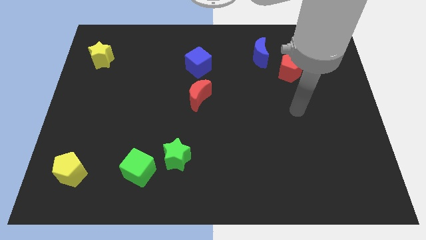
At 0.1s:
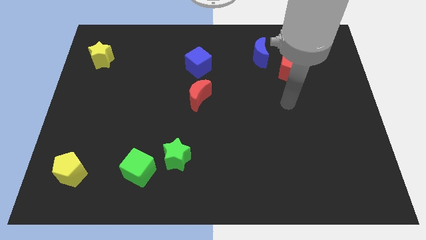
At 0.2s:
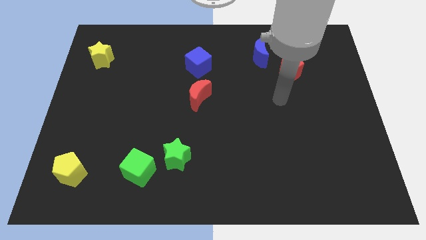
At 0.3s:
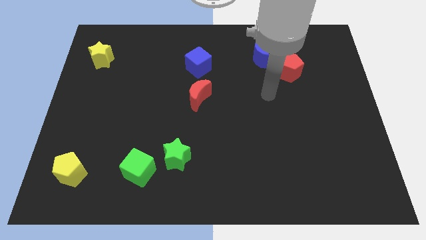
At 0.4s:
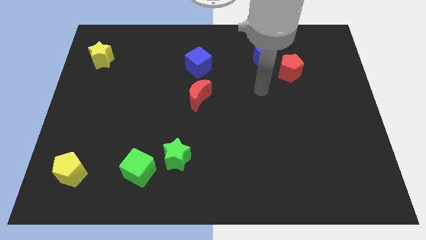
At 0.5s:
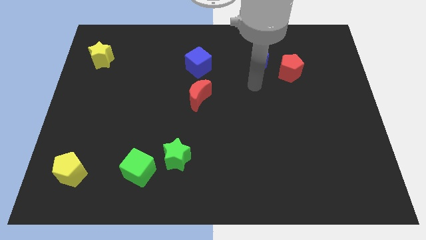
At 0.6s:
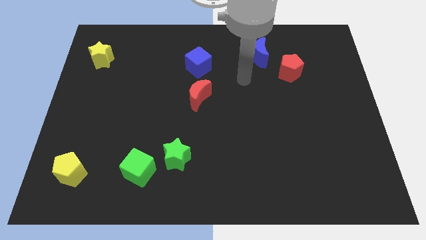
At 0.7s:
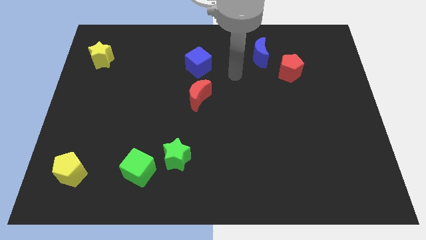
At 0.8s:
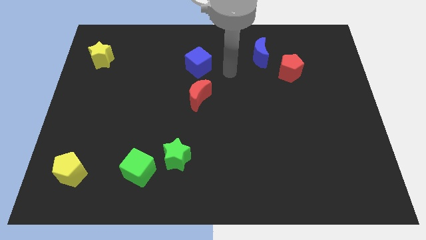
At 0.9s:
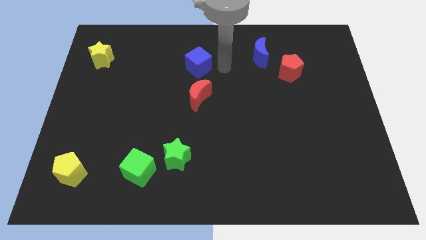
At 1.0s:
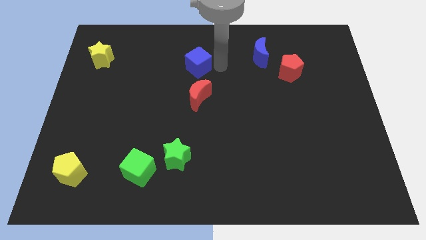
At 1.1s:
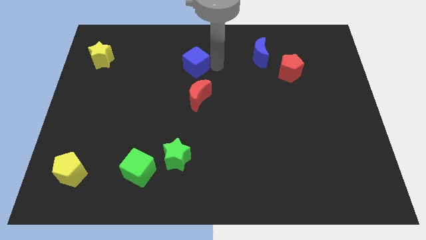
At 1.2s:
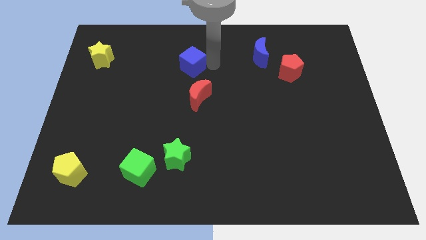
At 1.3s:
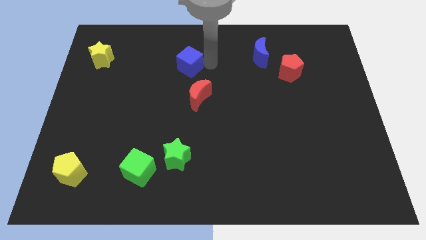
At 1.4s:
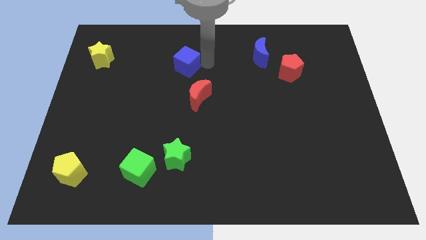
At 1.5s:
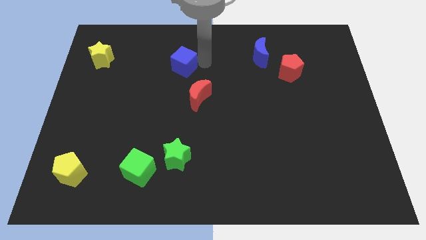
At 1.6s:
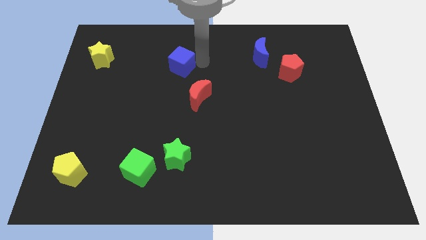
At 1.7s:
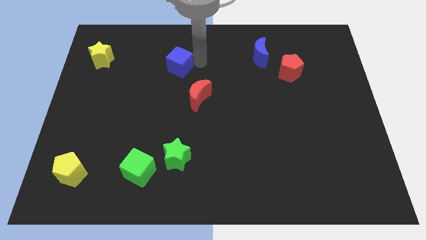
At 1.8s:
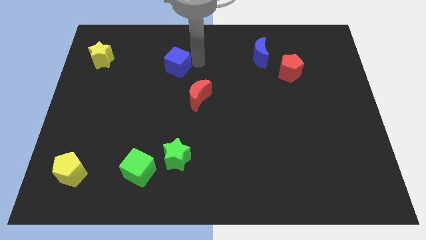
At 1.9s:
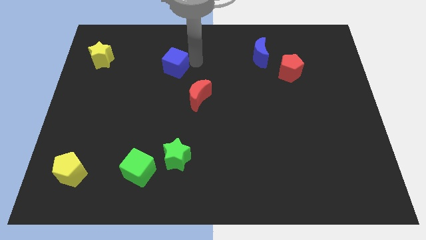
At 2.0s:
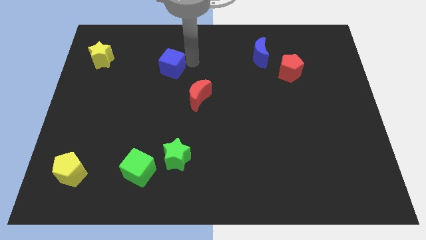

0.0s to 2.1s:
slightly slide the blue cube to the left

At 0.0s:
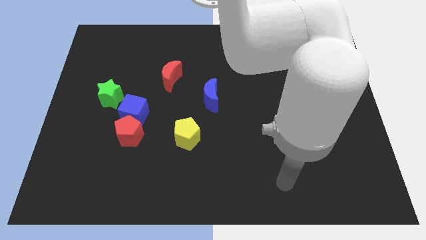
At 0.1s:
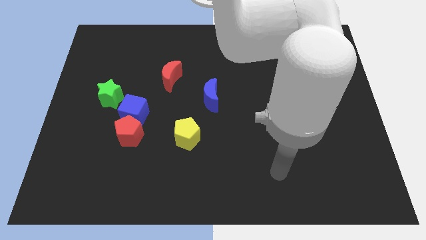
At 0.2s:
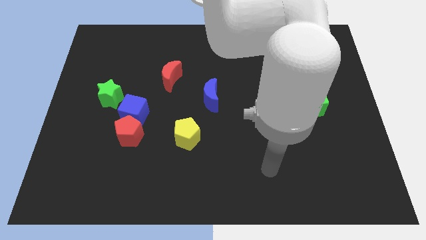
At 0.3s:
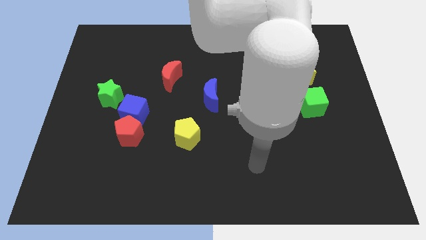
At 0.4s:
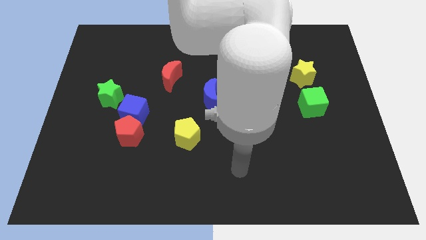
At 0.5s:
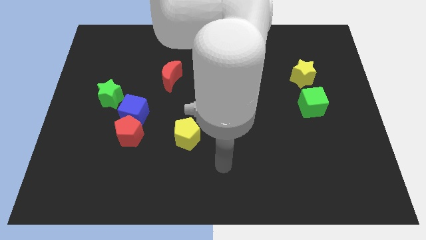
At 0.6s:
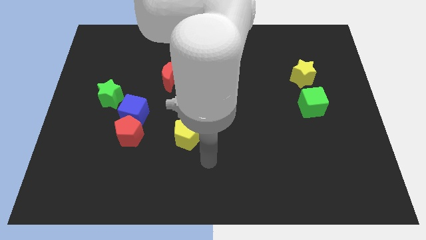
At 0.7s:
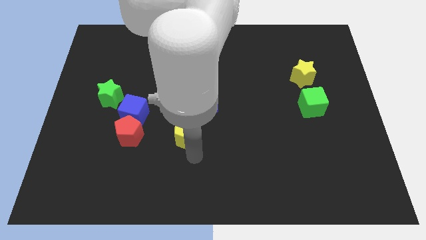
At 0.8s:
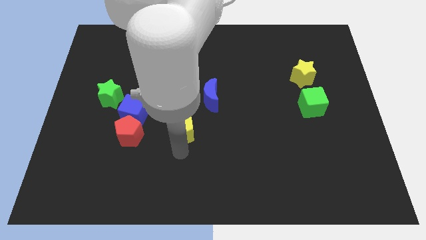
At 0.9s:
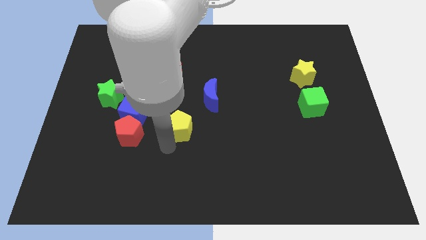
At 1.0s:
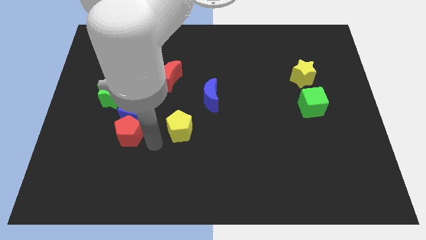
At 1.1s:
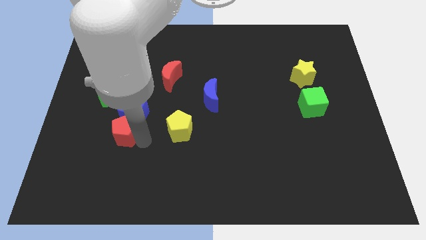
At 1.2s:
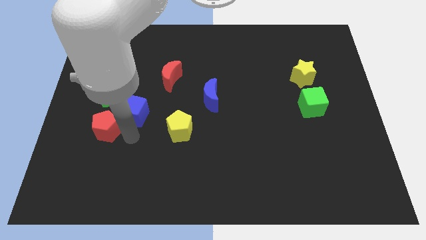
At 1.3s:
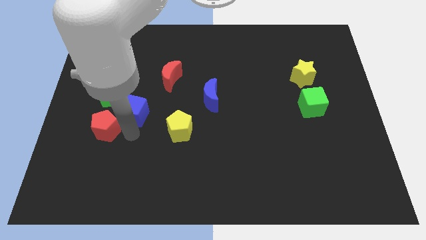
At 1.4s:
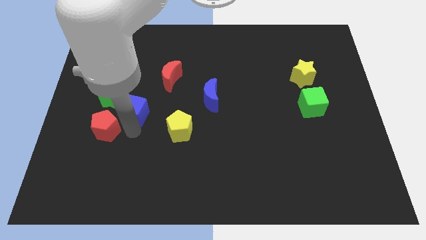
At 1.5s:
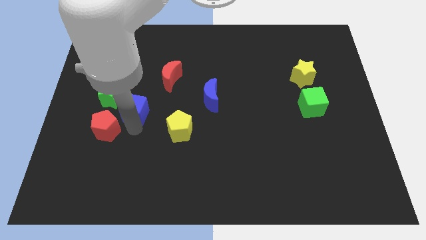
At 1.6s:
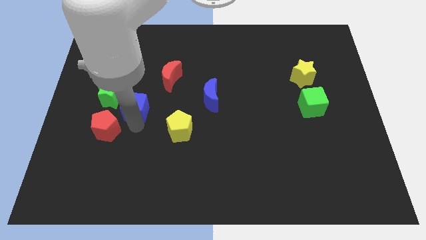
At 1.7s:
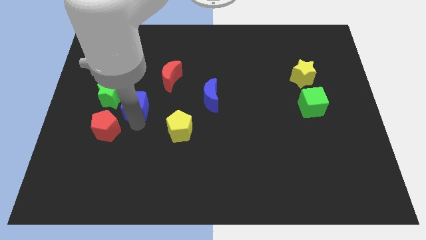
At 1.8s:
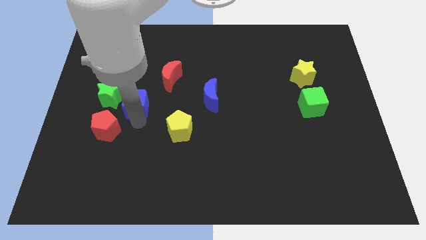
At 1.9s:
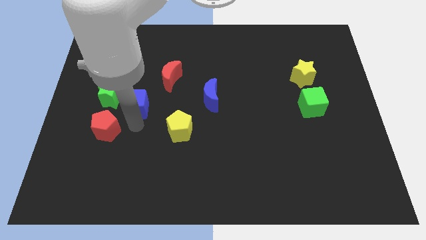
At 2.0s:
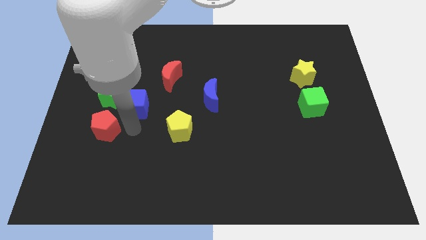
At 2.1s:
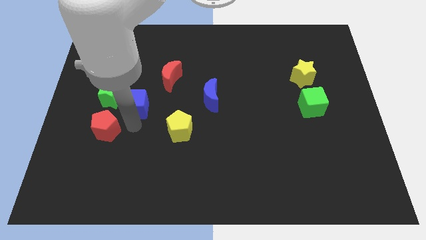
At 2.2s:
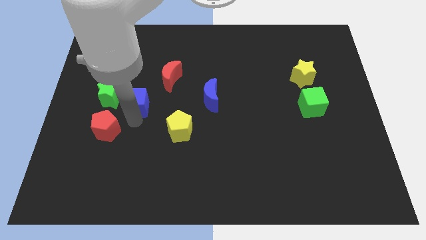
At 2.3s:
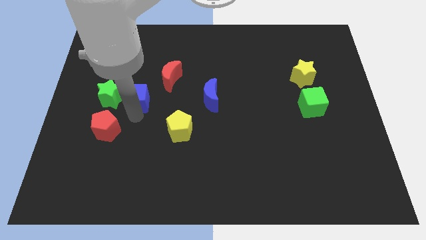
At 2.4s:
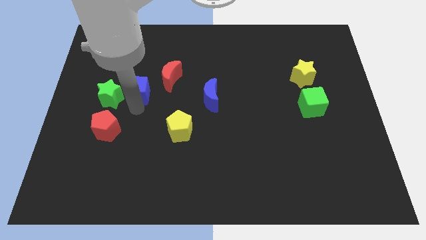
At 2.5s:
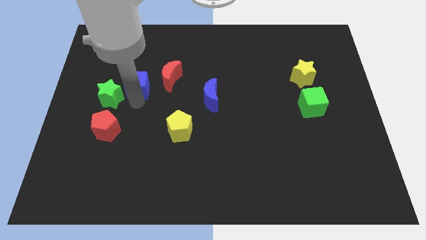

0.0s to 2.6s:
move the blue cube up slightly

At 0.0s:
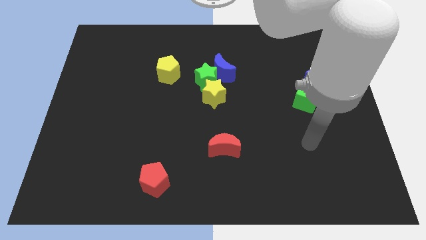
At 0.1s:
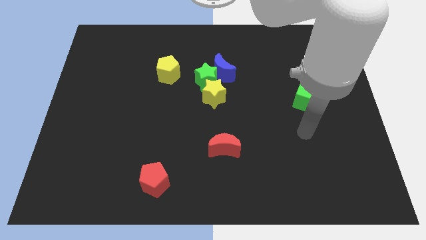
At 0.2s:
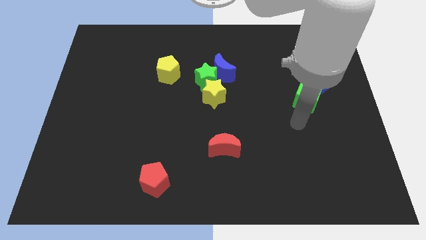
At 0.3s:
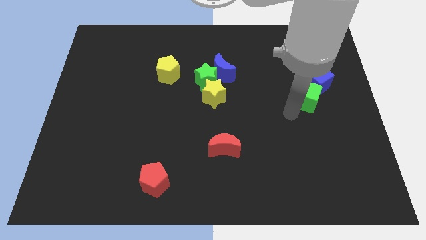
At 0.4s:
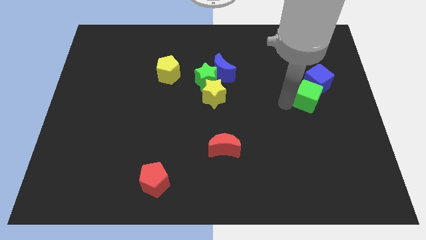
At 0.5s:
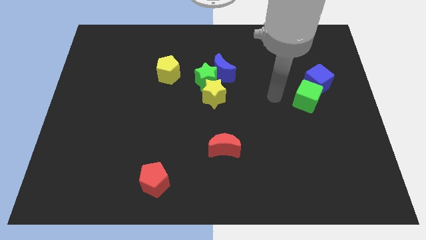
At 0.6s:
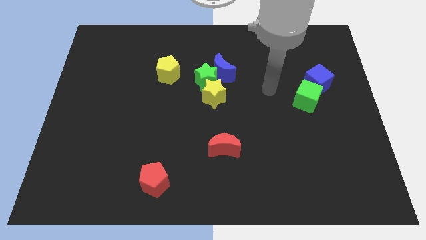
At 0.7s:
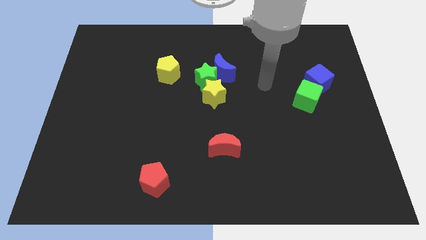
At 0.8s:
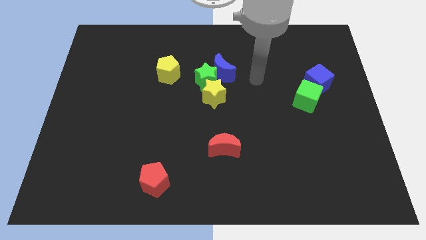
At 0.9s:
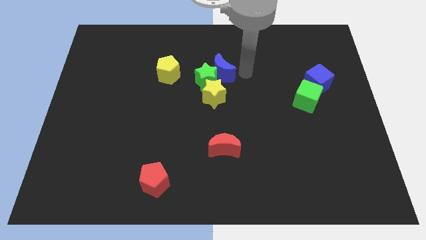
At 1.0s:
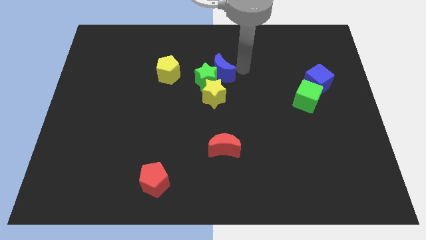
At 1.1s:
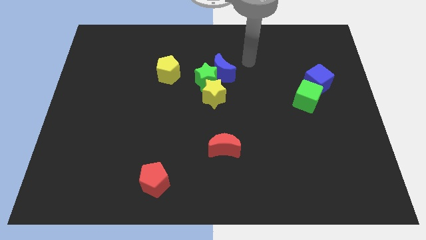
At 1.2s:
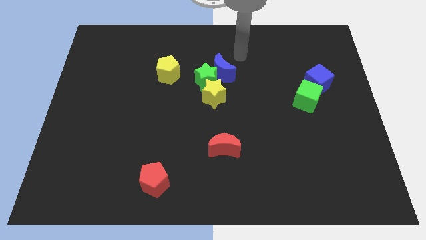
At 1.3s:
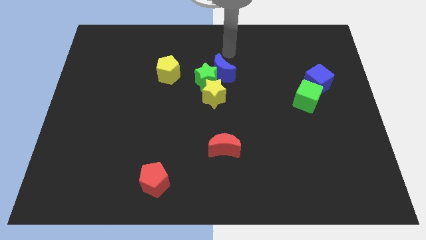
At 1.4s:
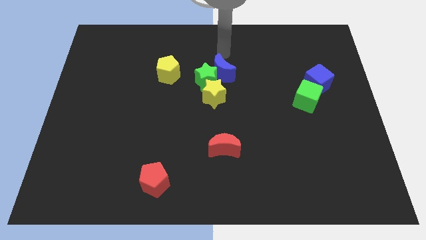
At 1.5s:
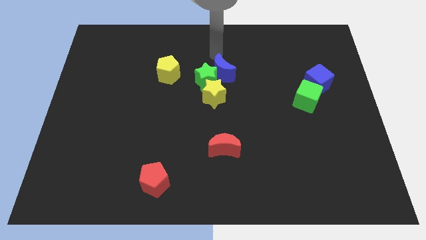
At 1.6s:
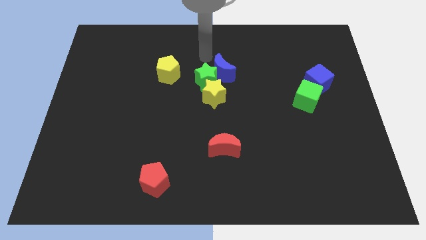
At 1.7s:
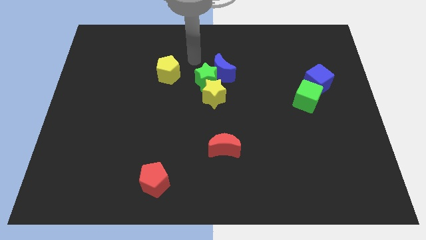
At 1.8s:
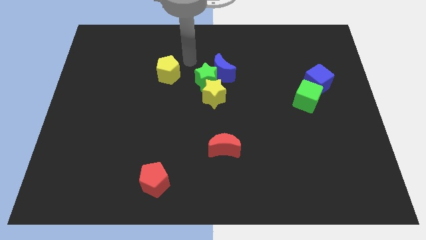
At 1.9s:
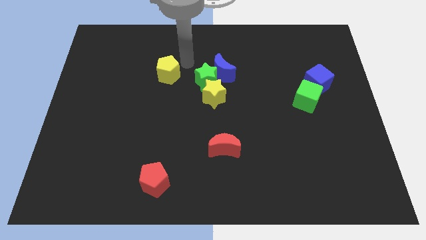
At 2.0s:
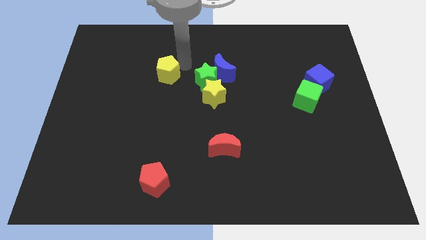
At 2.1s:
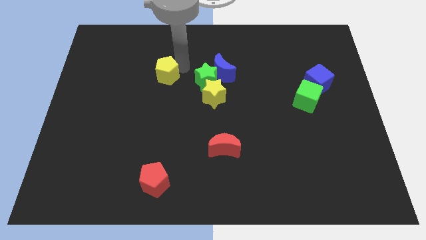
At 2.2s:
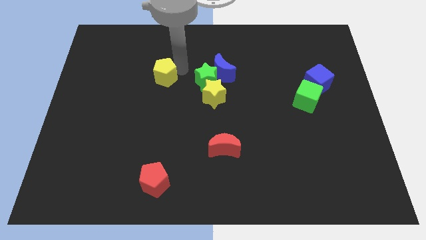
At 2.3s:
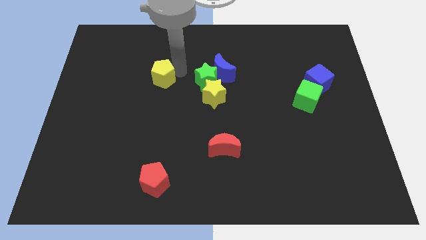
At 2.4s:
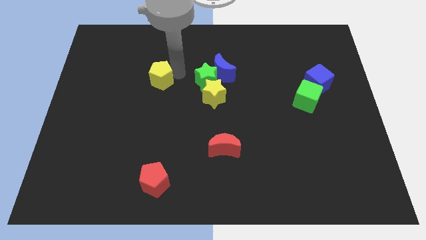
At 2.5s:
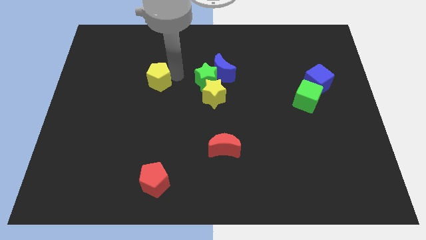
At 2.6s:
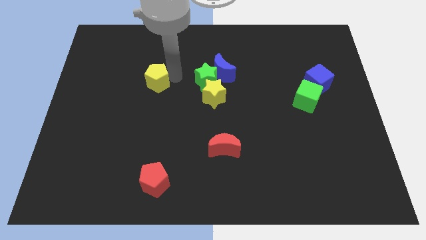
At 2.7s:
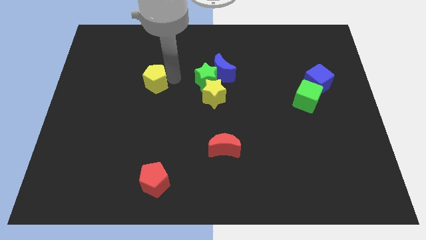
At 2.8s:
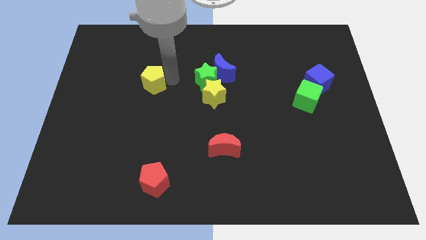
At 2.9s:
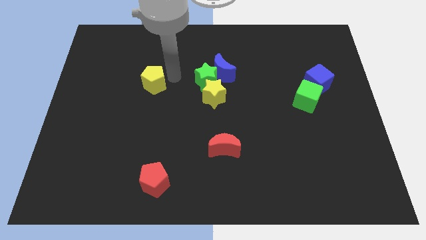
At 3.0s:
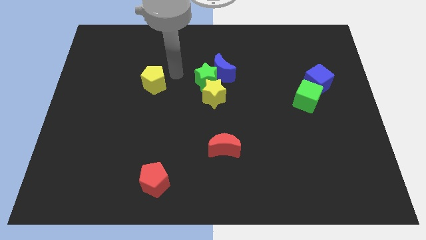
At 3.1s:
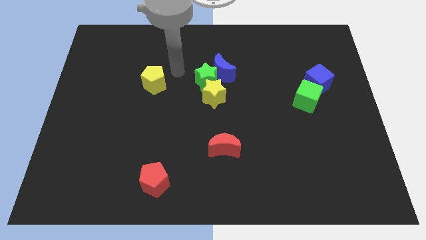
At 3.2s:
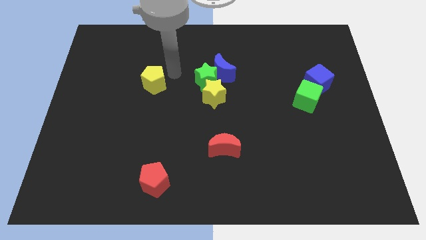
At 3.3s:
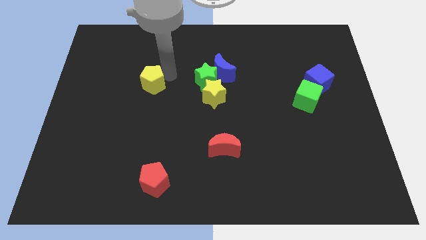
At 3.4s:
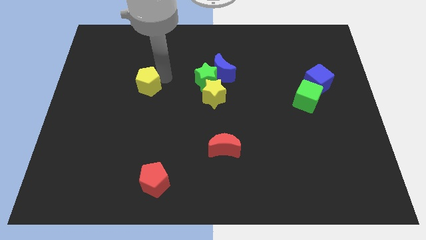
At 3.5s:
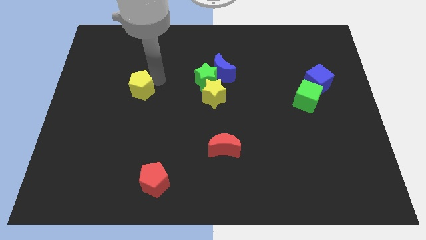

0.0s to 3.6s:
slide the yellow pentagon down and then left a bit

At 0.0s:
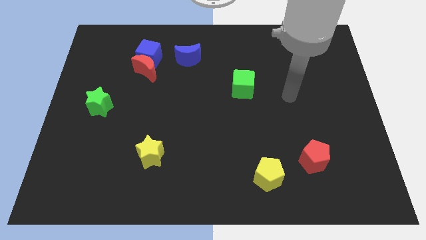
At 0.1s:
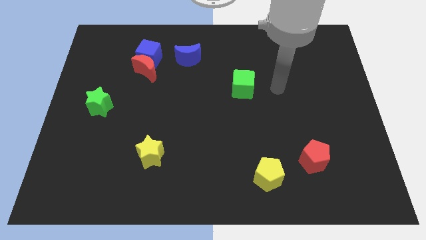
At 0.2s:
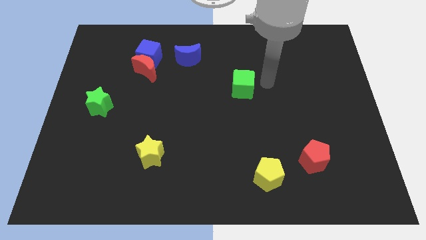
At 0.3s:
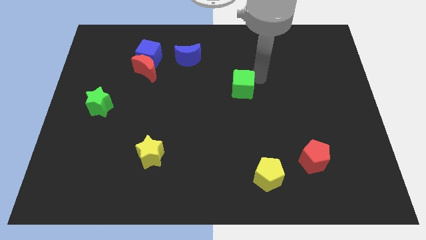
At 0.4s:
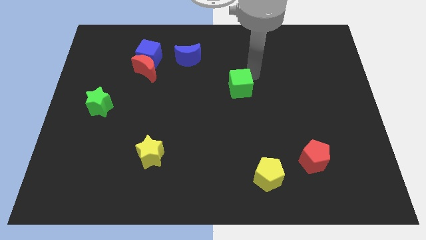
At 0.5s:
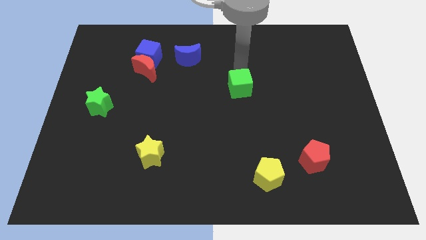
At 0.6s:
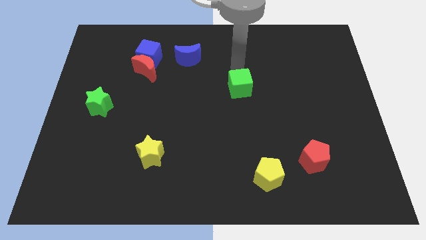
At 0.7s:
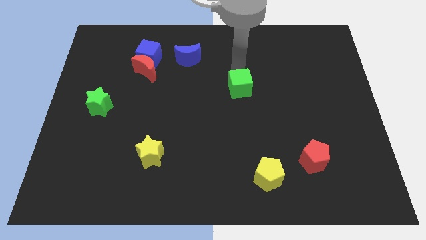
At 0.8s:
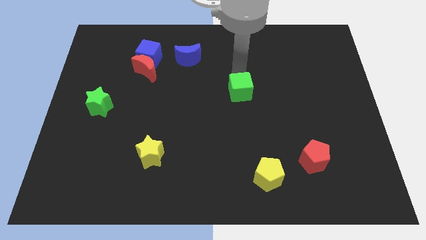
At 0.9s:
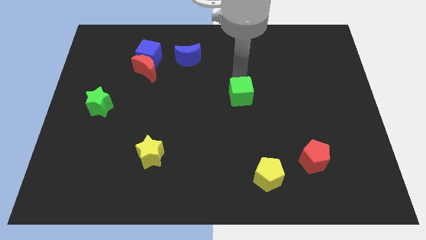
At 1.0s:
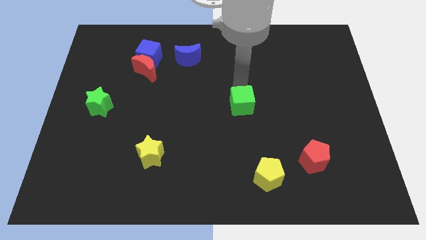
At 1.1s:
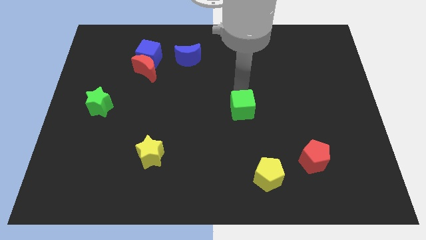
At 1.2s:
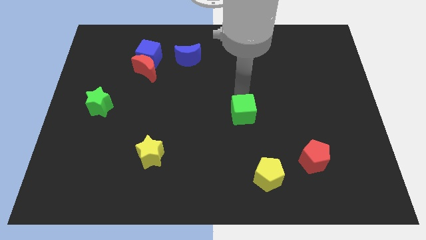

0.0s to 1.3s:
slide the green cube a bit down
